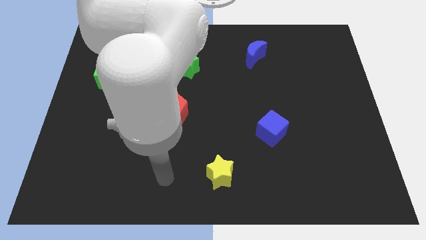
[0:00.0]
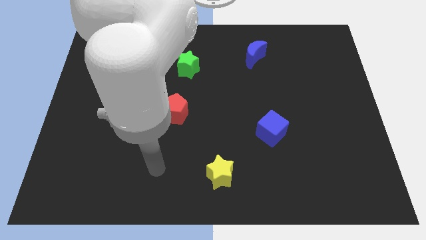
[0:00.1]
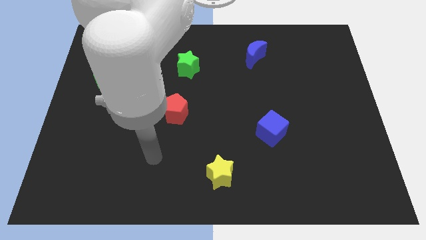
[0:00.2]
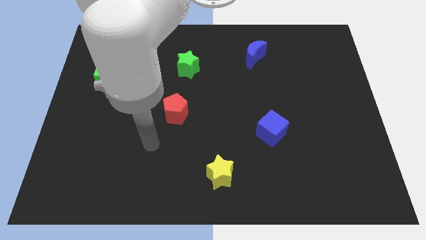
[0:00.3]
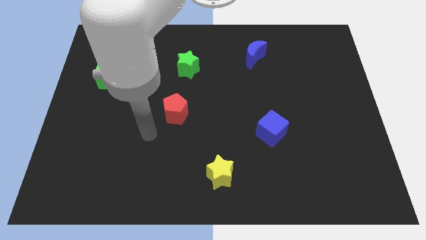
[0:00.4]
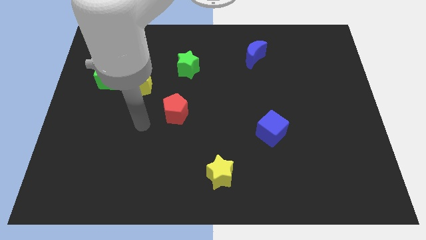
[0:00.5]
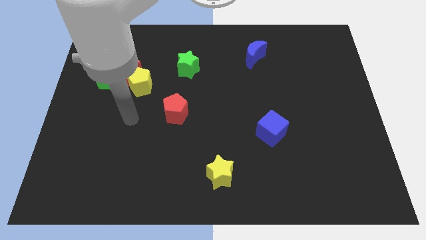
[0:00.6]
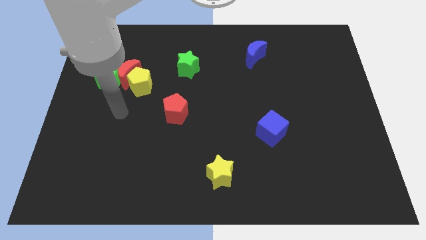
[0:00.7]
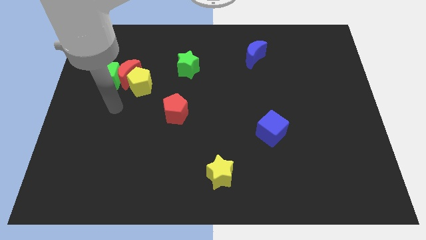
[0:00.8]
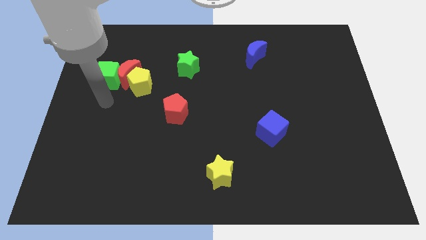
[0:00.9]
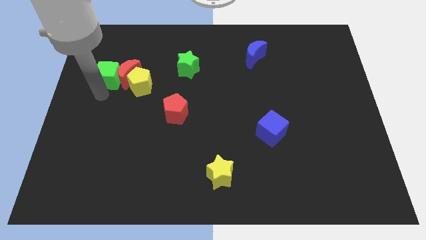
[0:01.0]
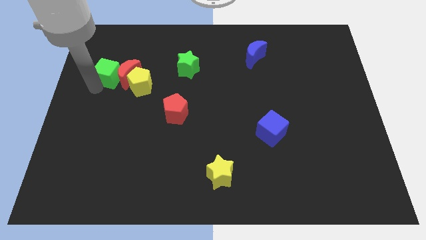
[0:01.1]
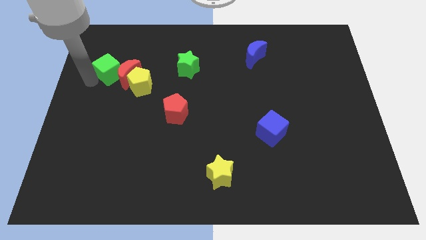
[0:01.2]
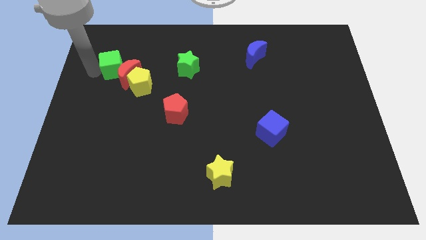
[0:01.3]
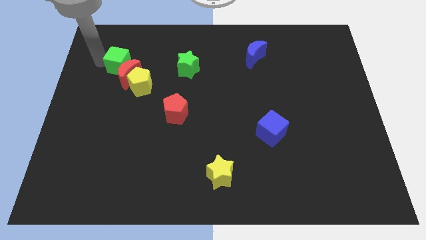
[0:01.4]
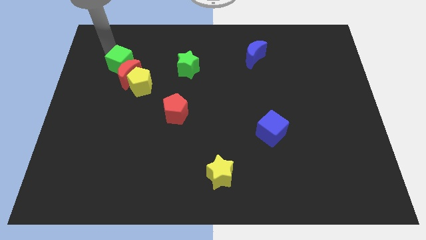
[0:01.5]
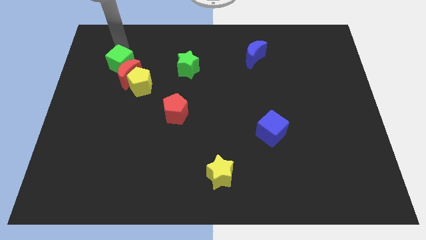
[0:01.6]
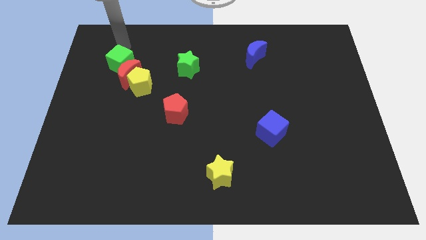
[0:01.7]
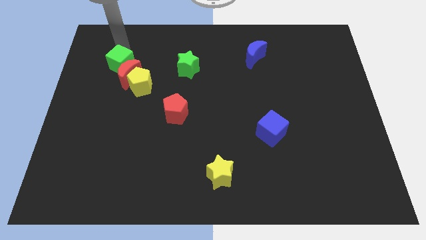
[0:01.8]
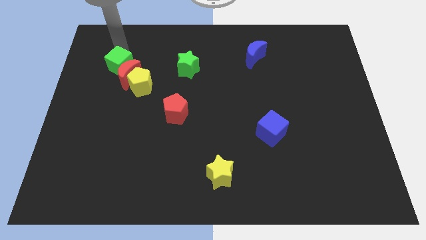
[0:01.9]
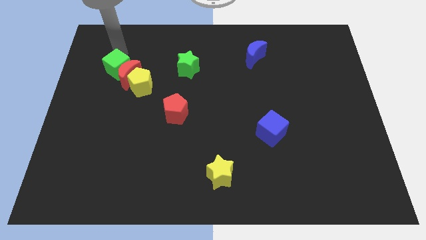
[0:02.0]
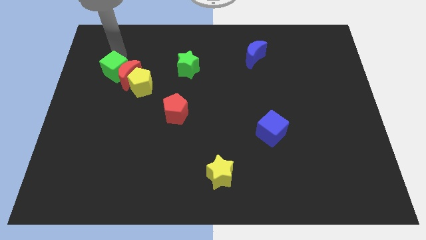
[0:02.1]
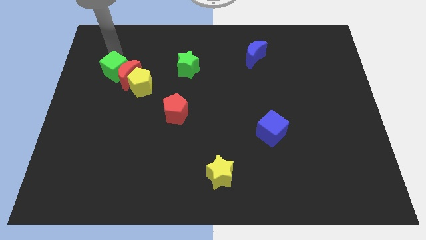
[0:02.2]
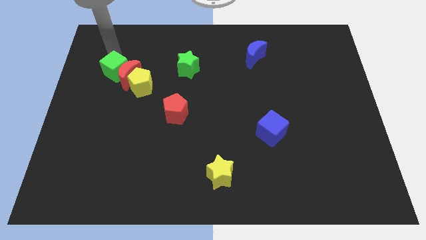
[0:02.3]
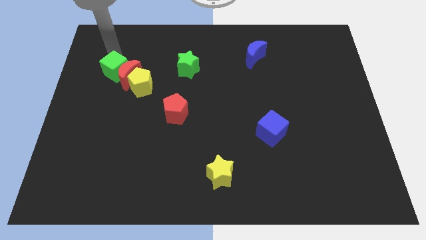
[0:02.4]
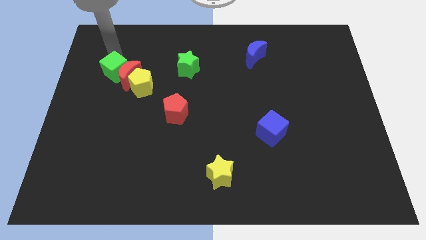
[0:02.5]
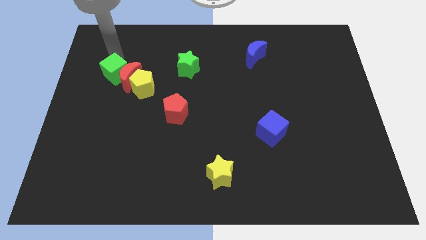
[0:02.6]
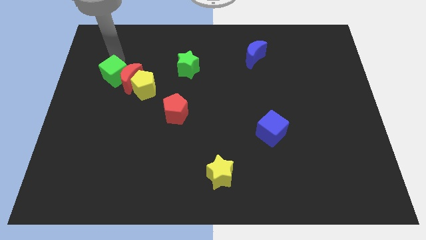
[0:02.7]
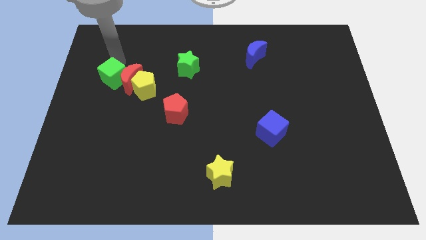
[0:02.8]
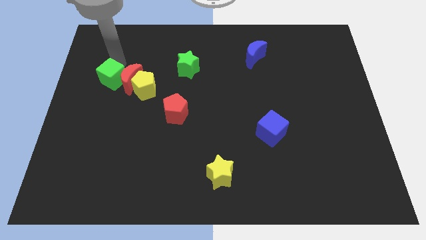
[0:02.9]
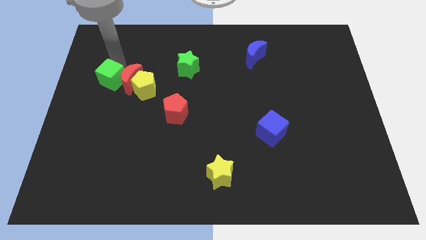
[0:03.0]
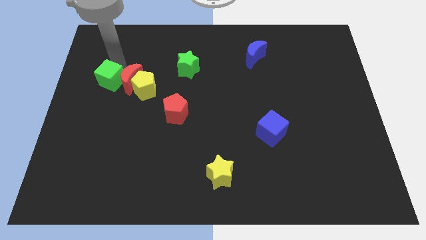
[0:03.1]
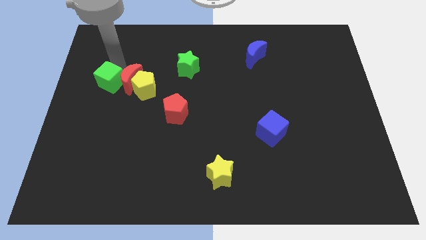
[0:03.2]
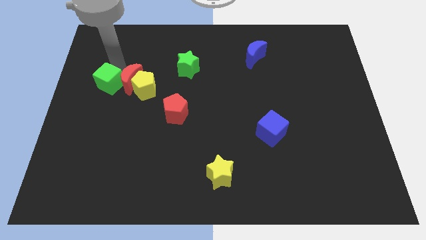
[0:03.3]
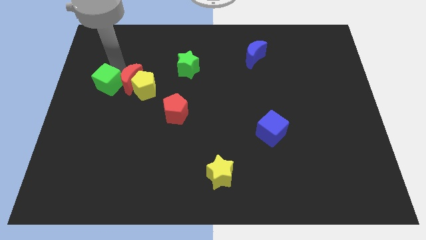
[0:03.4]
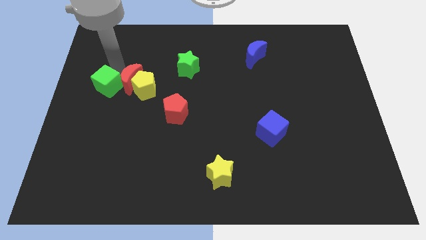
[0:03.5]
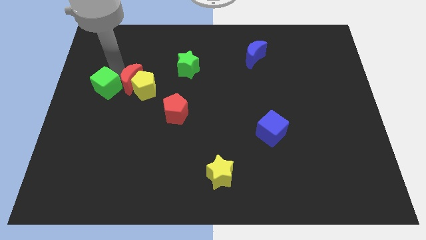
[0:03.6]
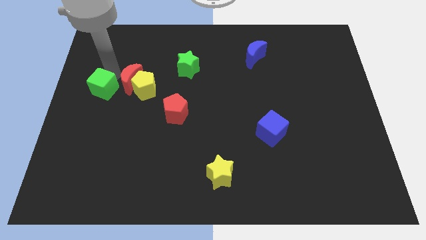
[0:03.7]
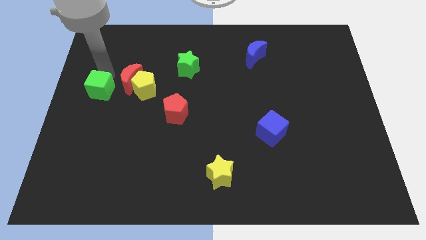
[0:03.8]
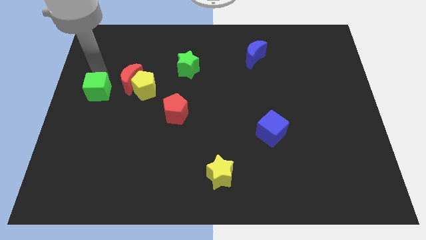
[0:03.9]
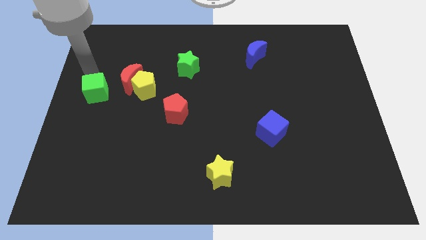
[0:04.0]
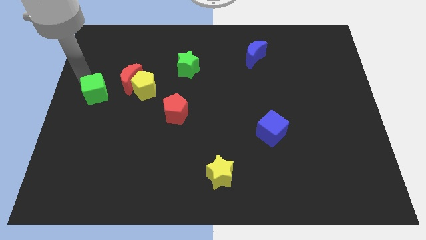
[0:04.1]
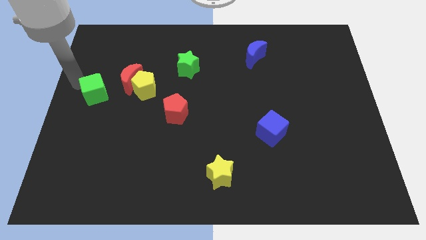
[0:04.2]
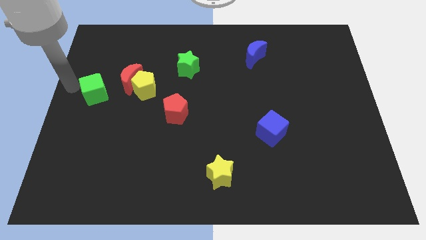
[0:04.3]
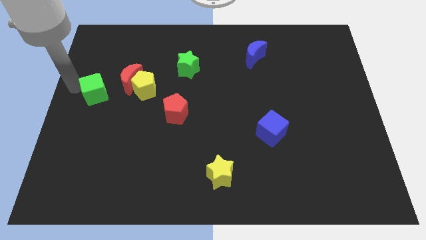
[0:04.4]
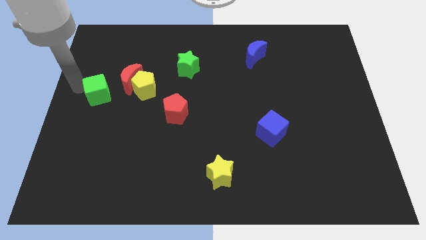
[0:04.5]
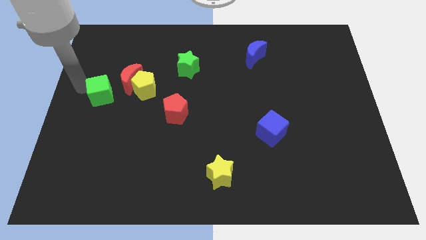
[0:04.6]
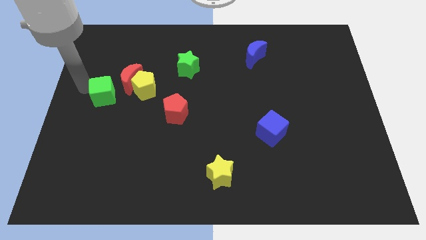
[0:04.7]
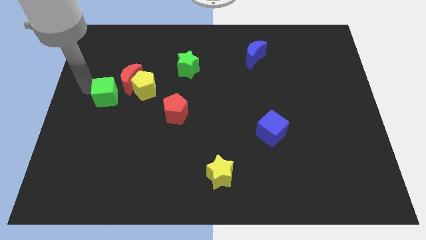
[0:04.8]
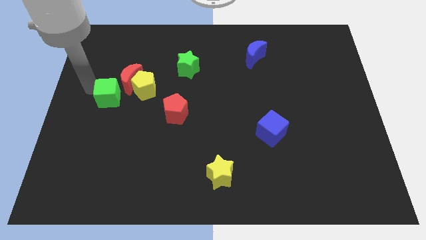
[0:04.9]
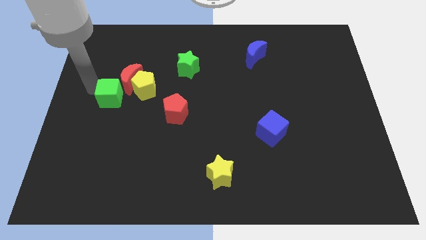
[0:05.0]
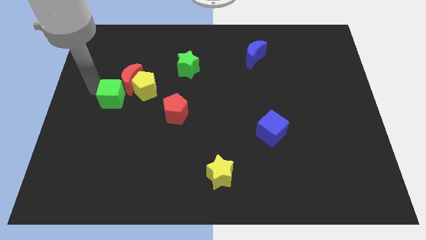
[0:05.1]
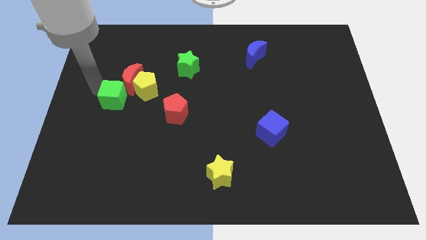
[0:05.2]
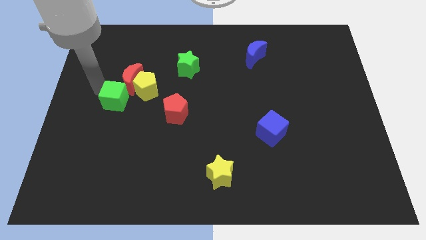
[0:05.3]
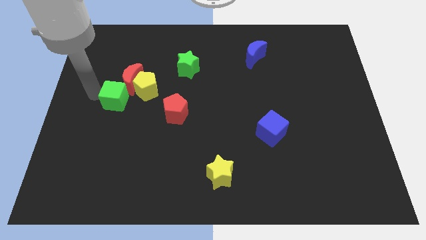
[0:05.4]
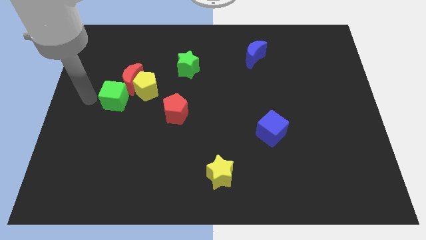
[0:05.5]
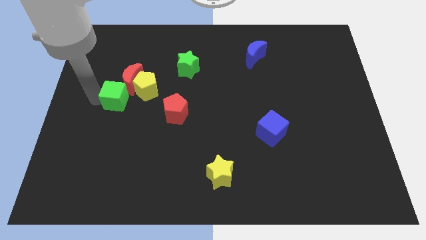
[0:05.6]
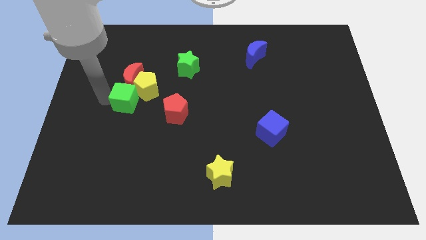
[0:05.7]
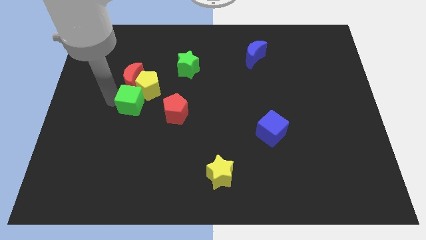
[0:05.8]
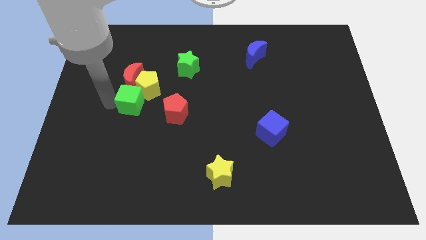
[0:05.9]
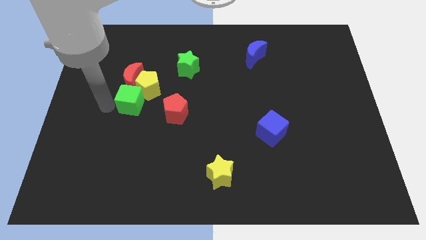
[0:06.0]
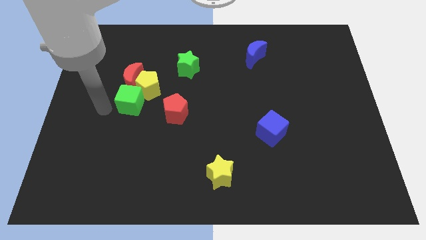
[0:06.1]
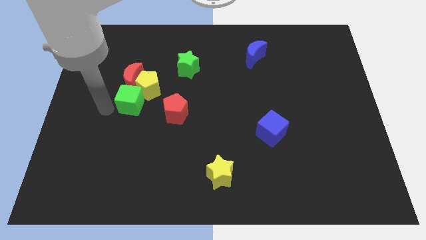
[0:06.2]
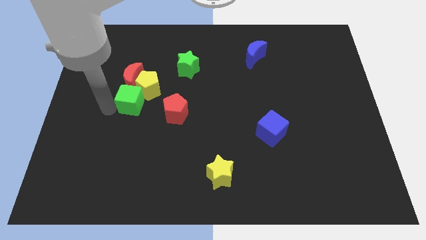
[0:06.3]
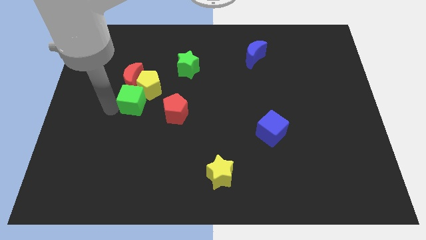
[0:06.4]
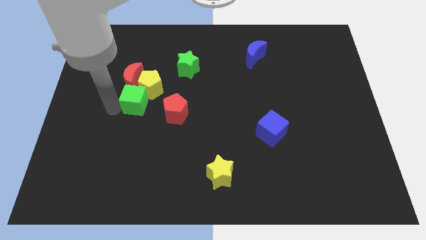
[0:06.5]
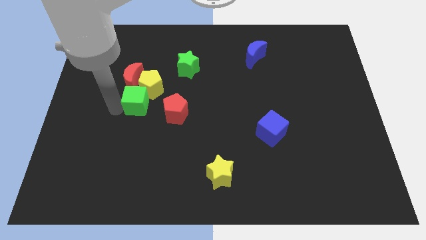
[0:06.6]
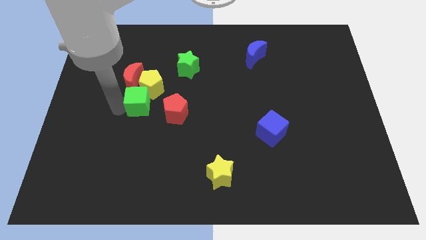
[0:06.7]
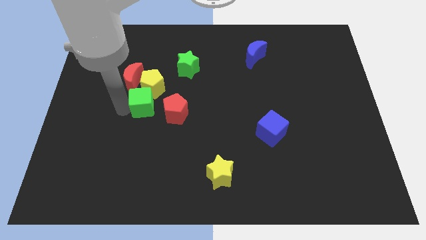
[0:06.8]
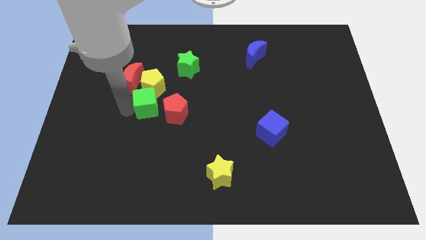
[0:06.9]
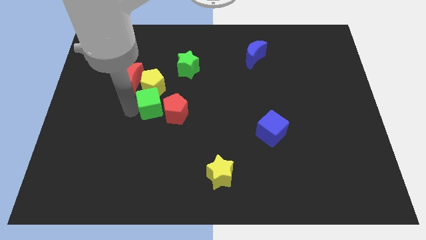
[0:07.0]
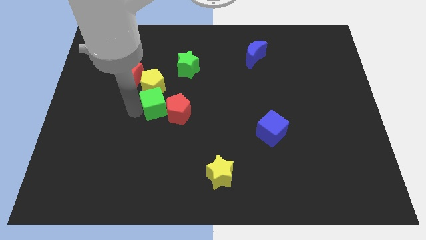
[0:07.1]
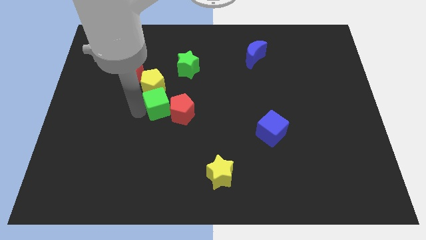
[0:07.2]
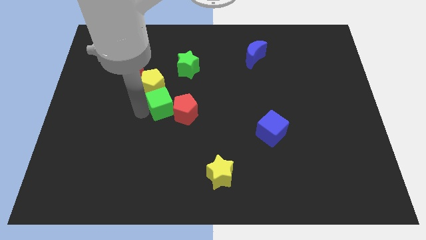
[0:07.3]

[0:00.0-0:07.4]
move the green cube to the middle of the board
